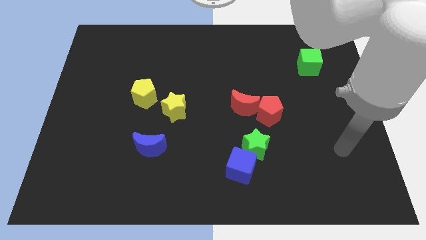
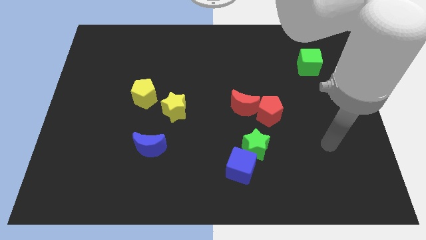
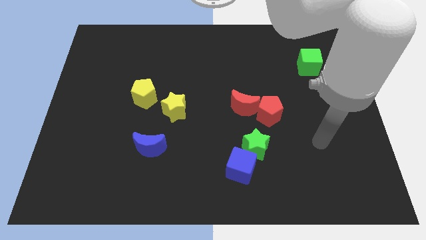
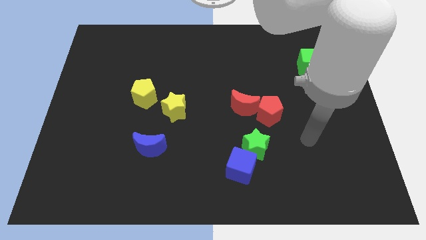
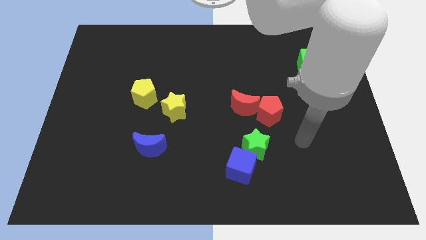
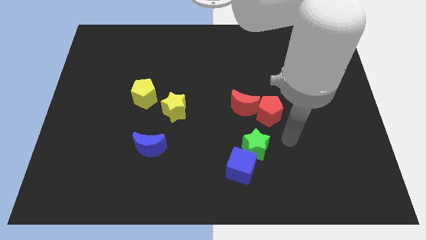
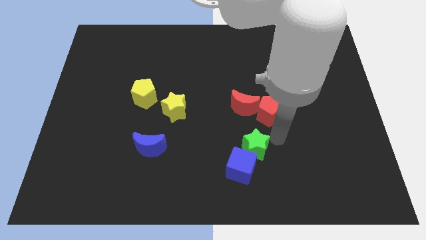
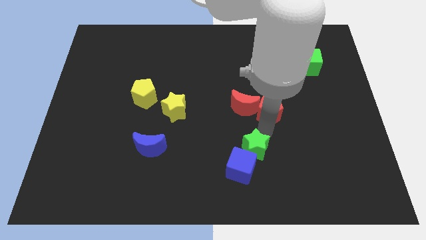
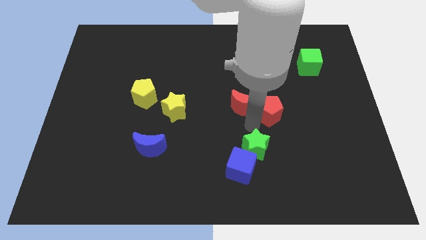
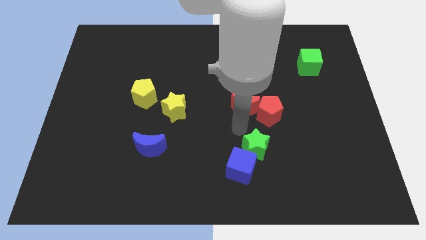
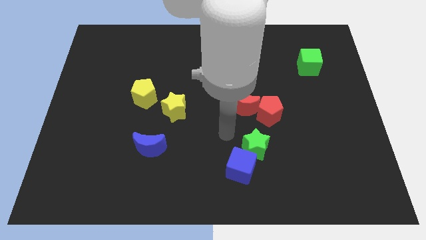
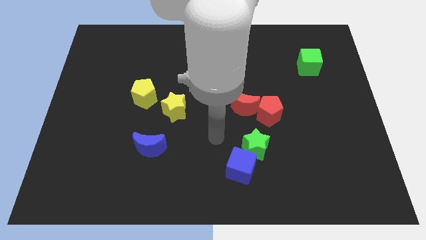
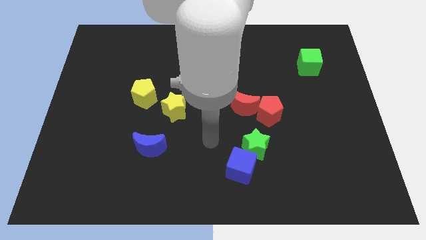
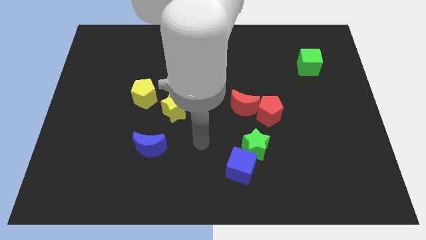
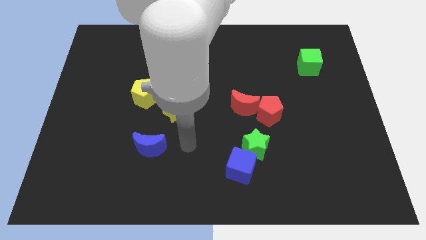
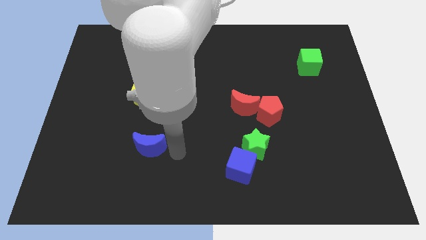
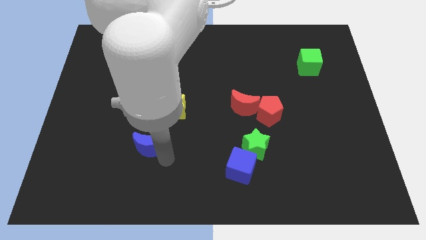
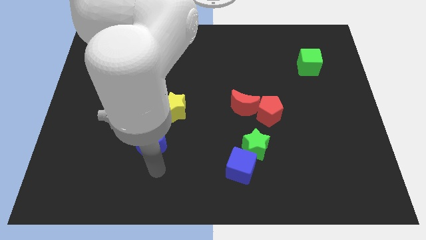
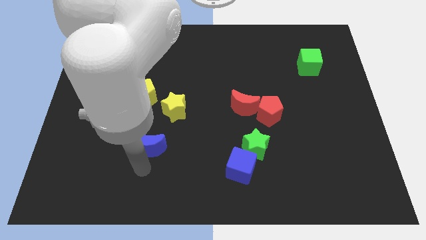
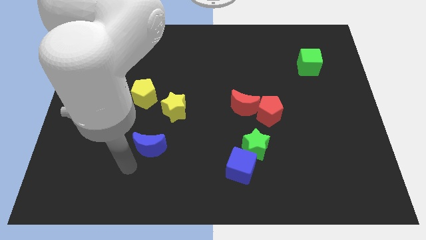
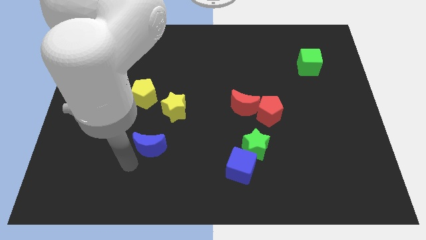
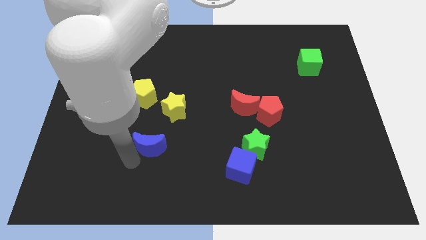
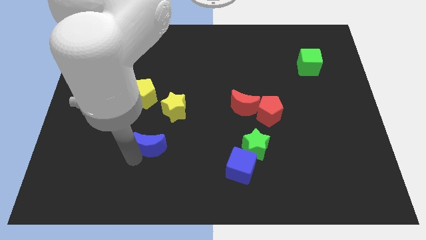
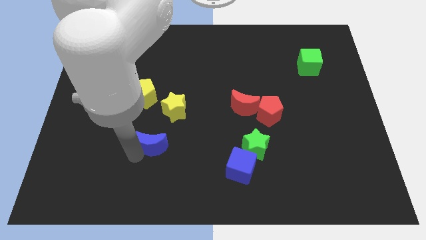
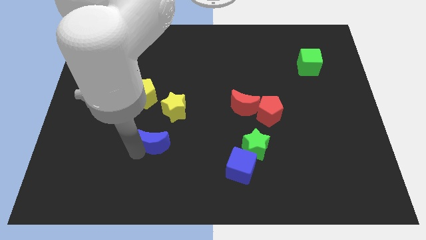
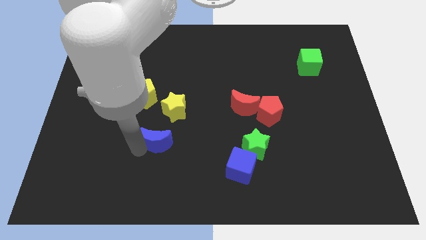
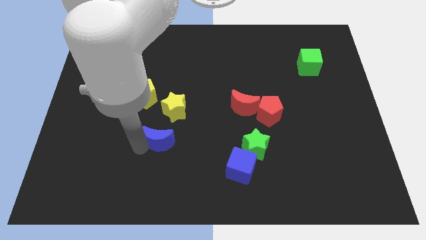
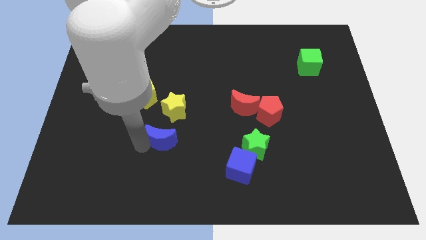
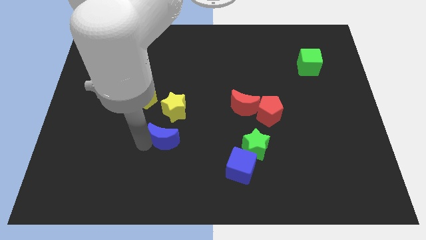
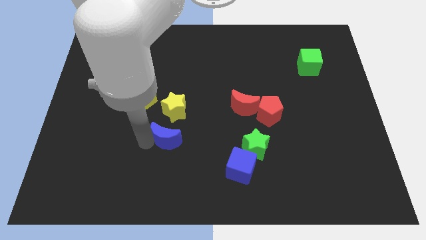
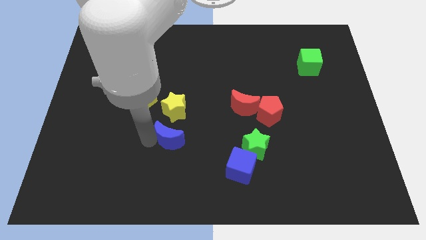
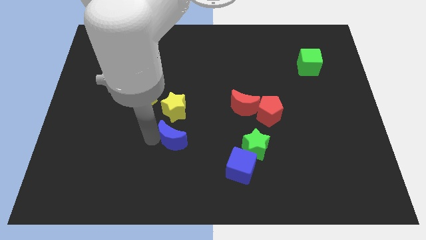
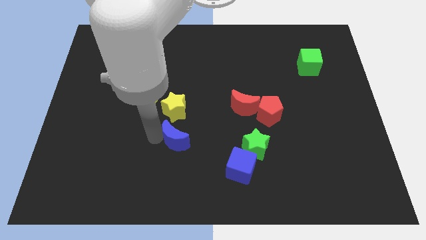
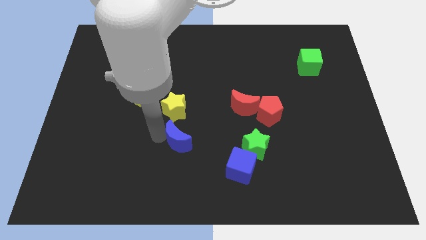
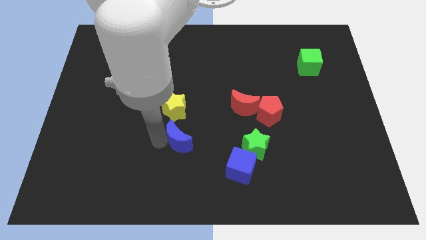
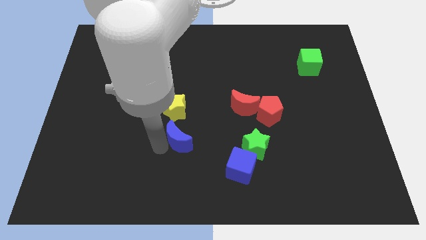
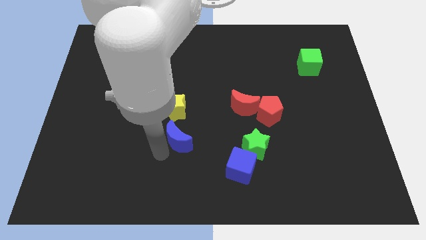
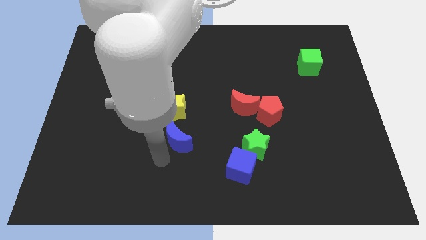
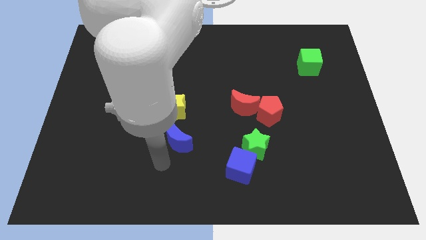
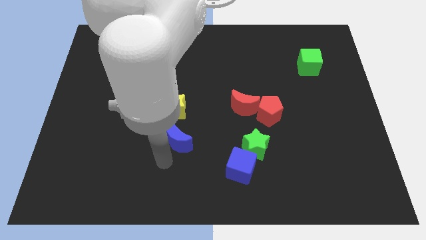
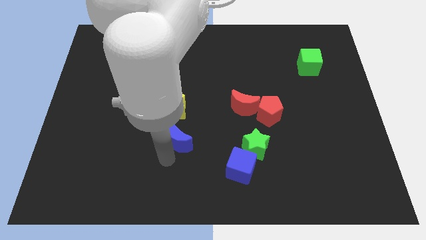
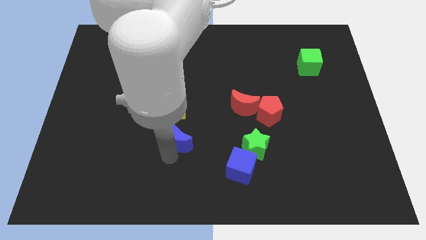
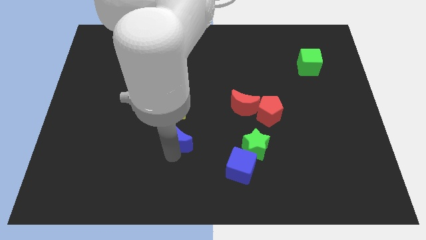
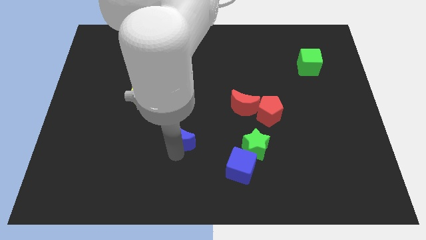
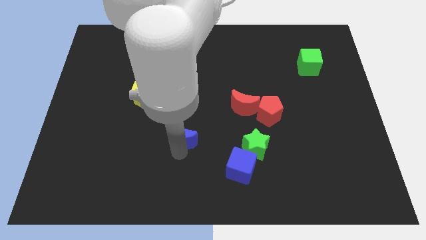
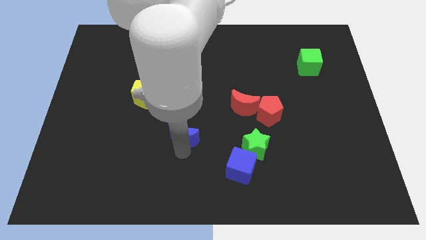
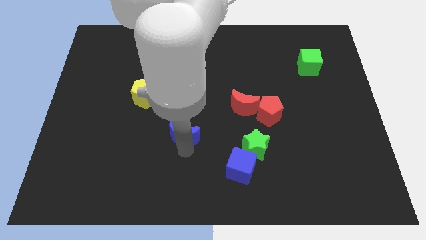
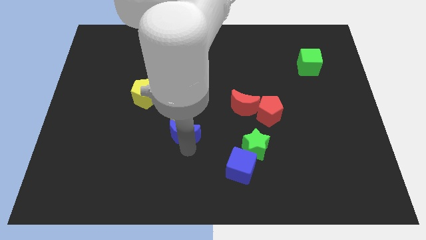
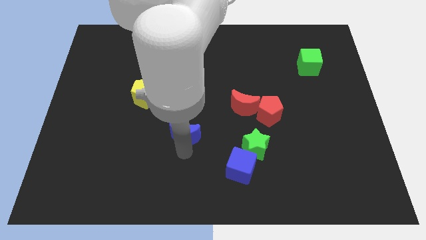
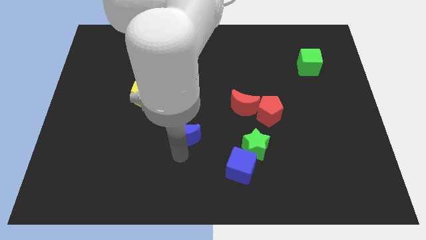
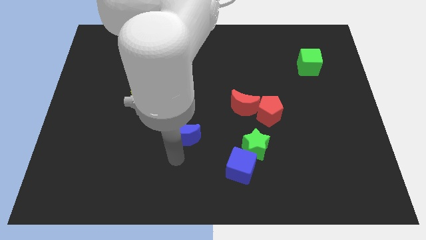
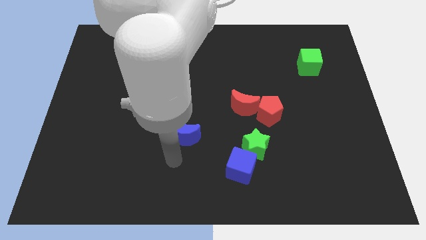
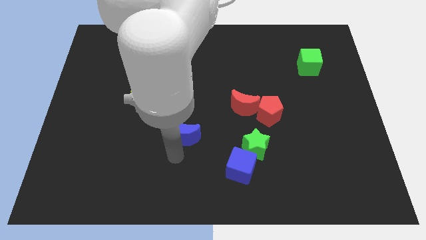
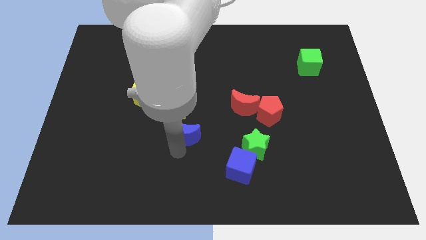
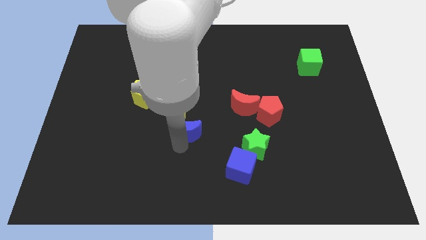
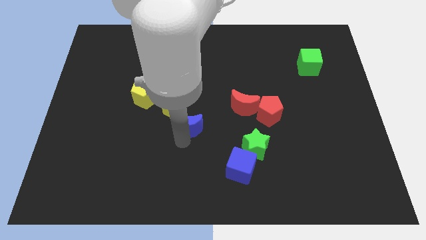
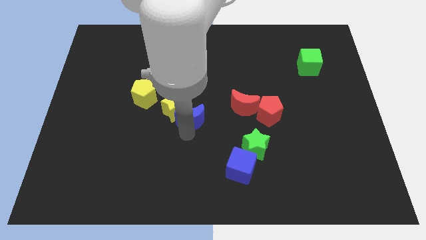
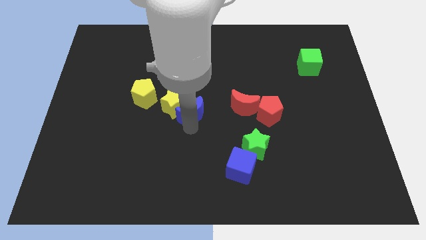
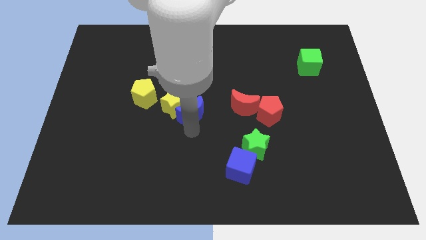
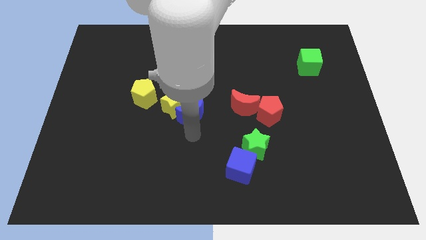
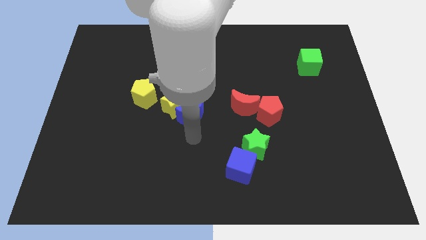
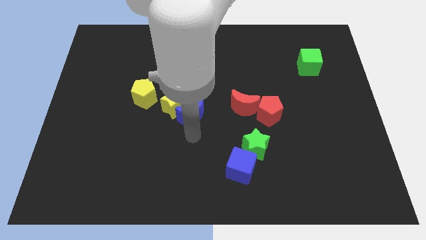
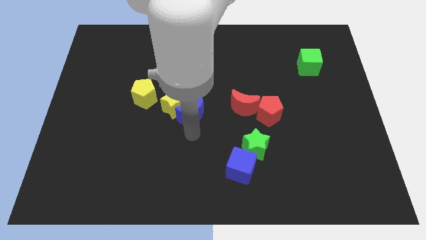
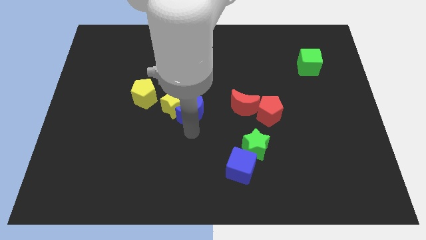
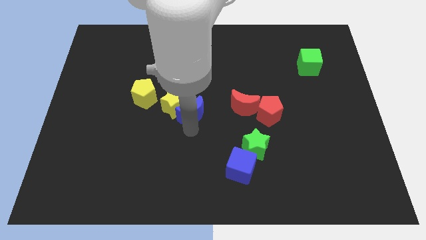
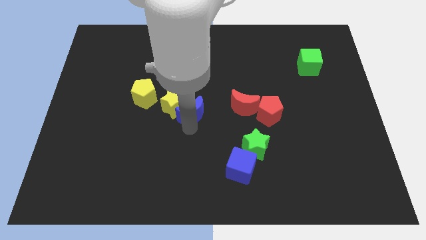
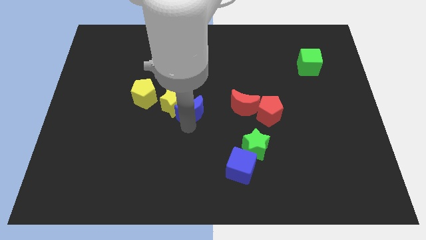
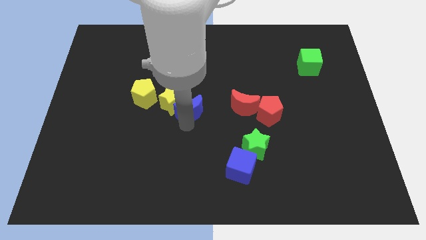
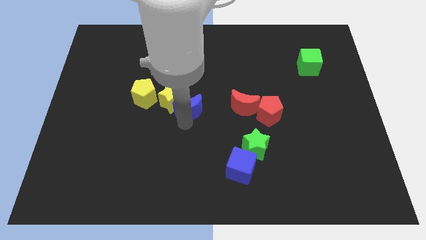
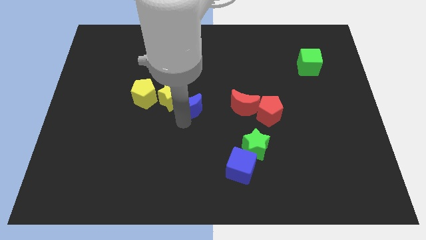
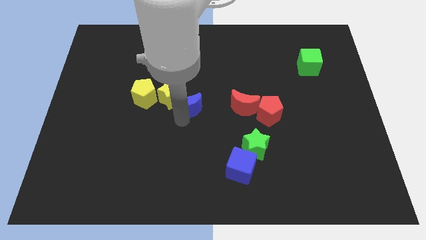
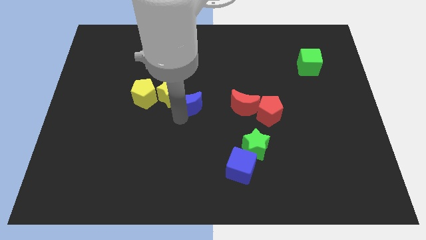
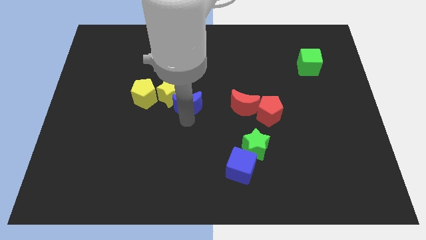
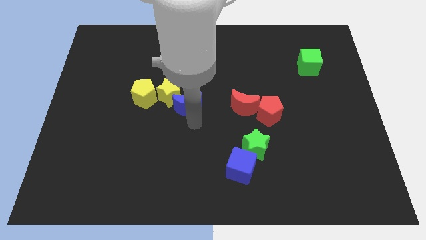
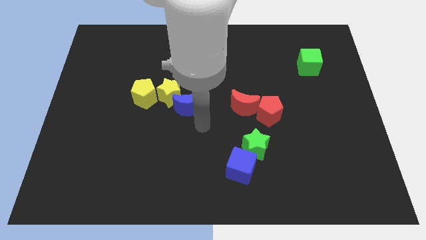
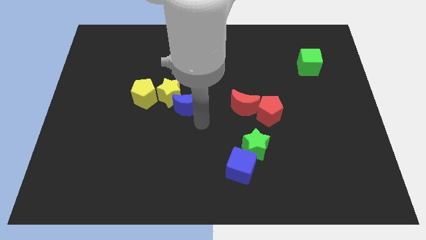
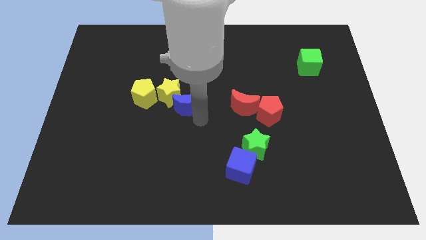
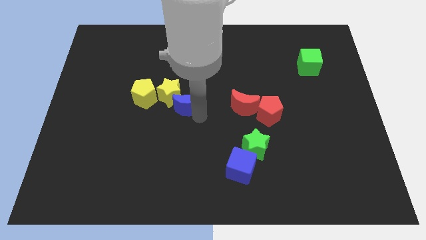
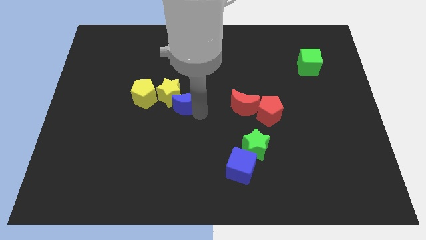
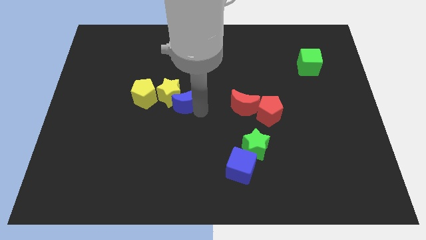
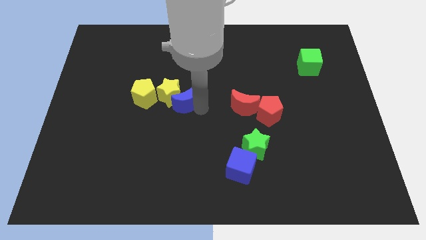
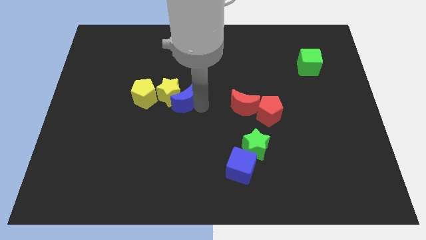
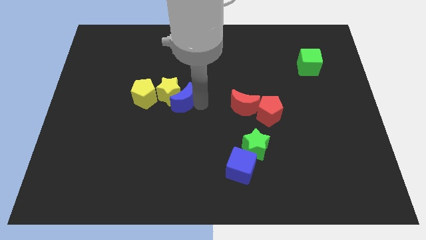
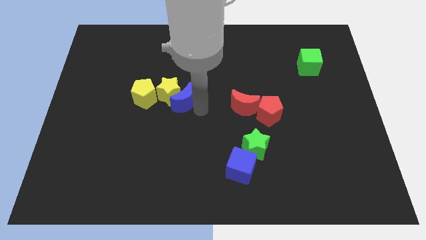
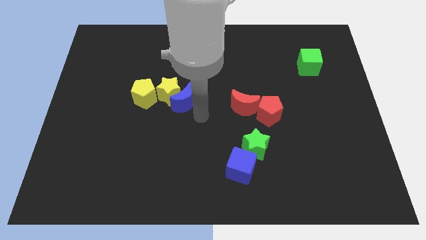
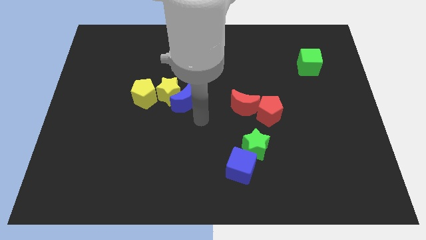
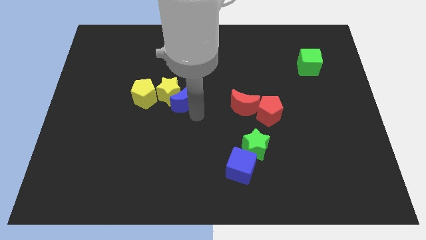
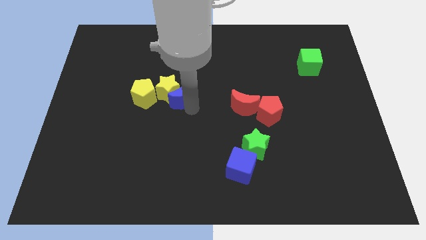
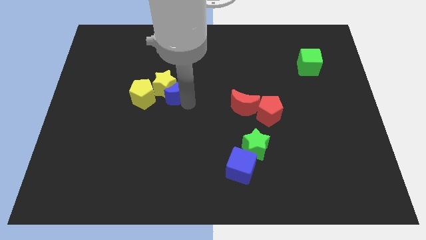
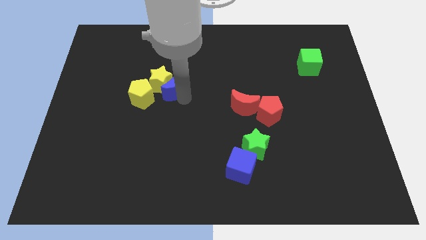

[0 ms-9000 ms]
push the blue moon to the top right side of the yellow pentagon
